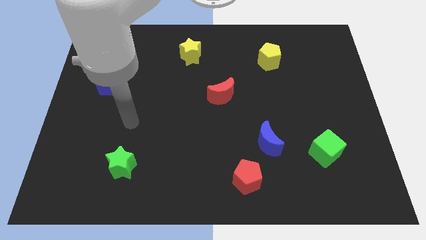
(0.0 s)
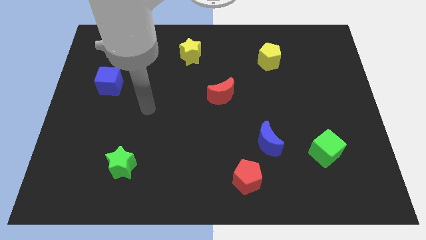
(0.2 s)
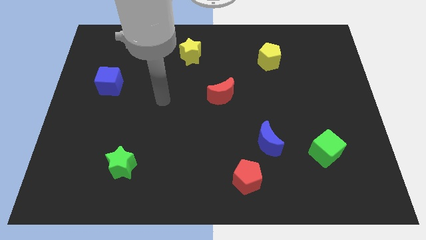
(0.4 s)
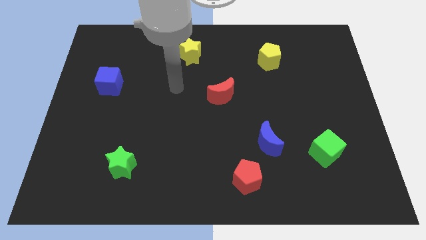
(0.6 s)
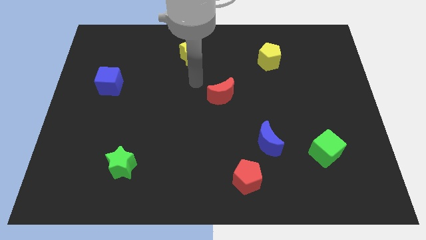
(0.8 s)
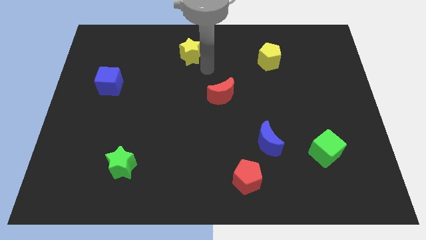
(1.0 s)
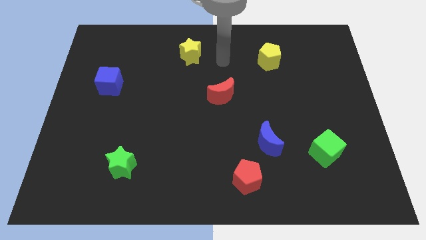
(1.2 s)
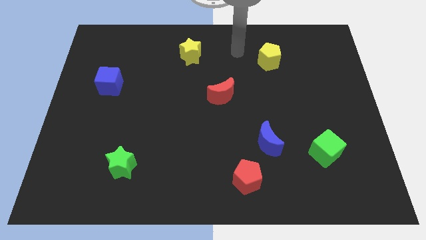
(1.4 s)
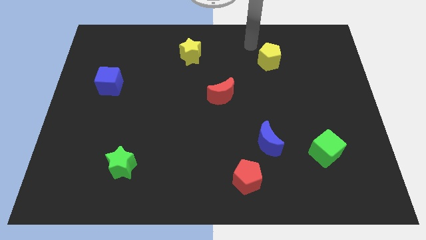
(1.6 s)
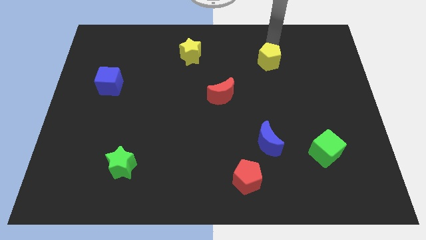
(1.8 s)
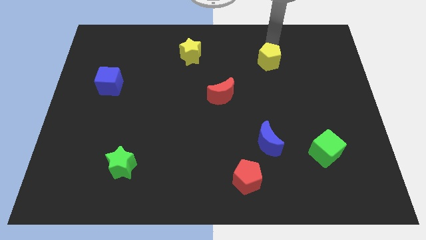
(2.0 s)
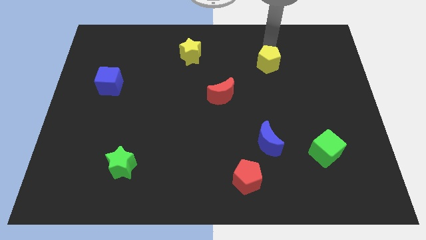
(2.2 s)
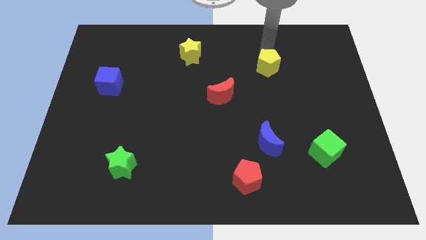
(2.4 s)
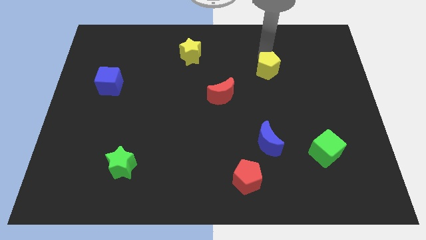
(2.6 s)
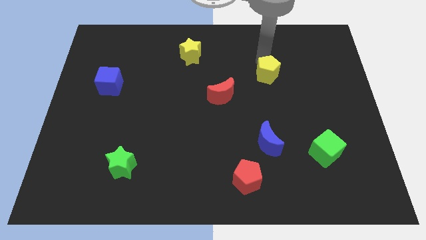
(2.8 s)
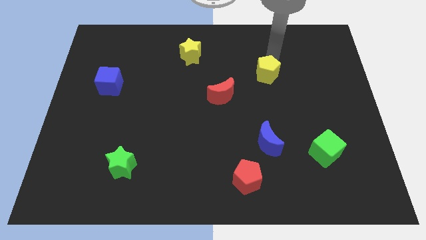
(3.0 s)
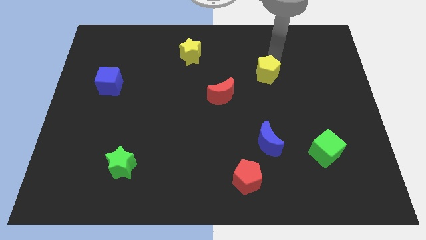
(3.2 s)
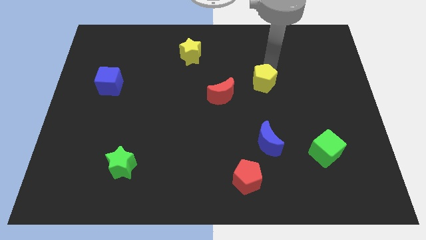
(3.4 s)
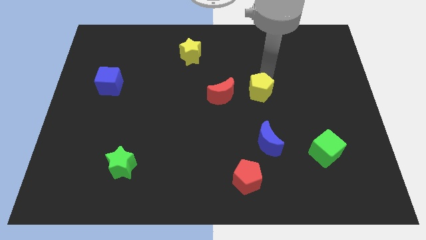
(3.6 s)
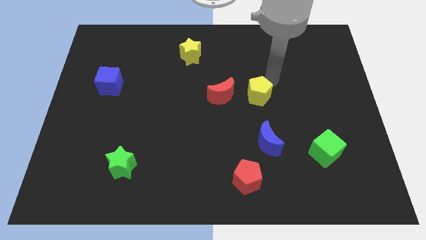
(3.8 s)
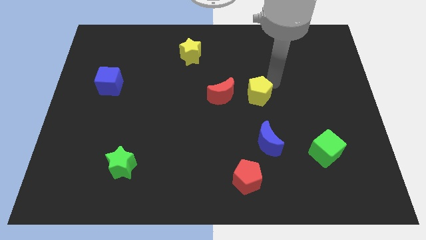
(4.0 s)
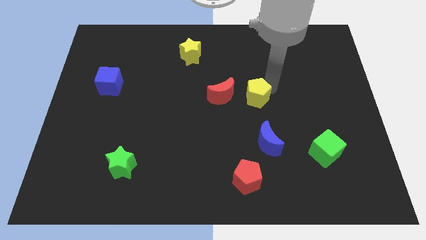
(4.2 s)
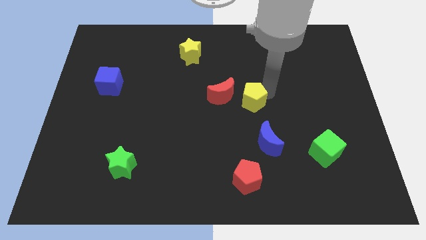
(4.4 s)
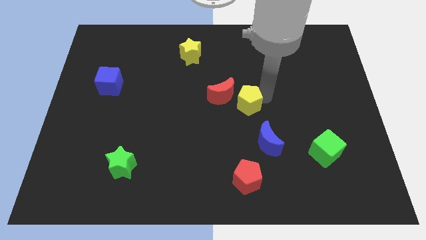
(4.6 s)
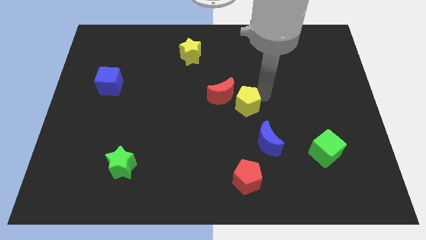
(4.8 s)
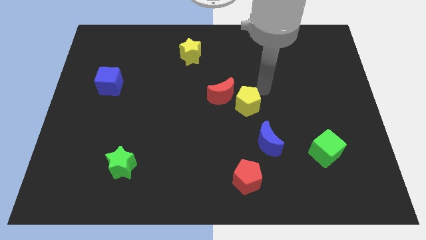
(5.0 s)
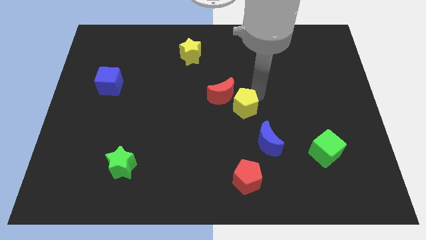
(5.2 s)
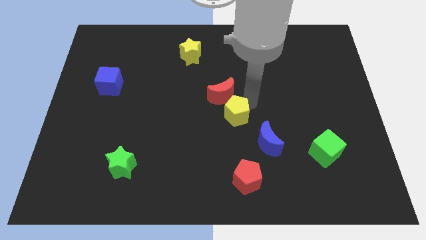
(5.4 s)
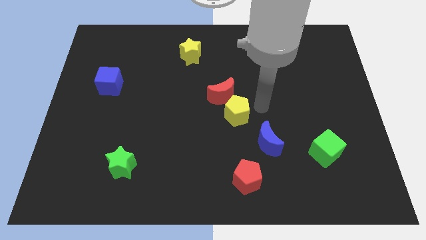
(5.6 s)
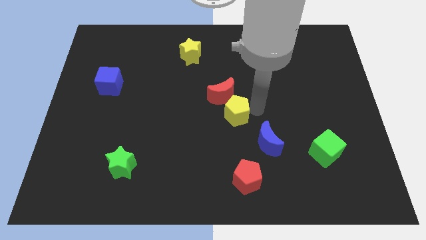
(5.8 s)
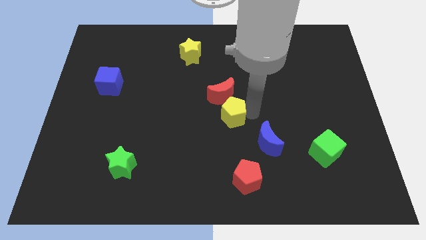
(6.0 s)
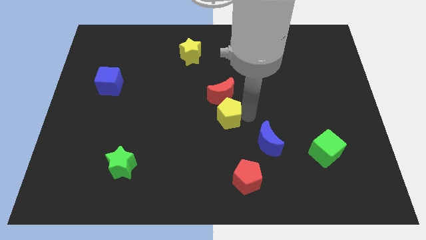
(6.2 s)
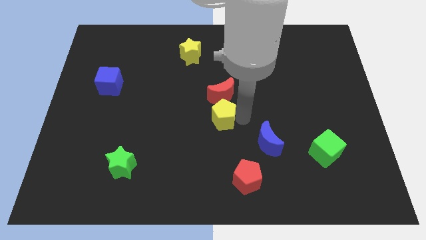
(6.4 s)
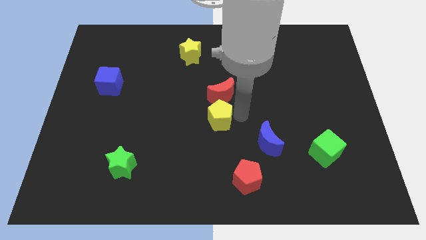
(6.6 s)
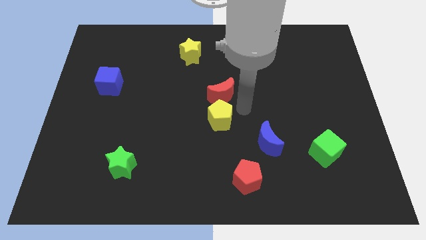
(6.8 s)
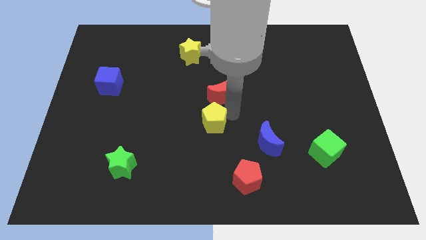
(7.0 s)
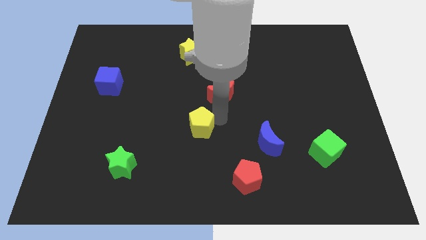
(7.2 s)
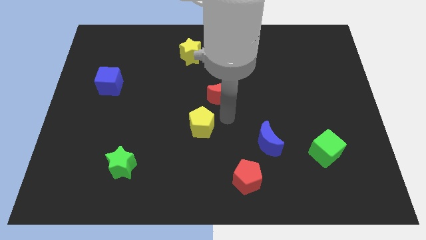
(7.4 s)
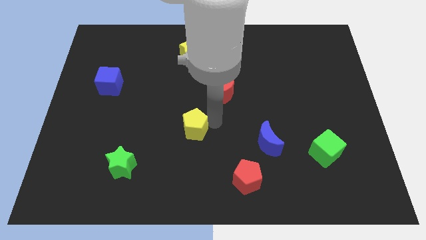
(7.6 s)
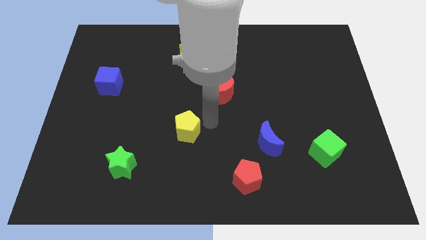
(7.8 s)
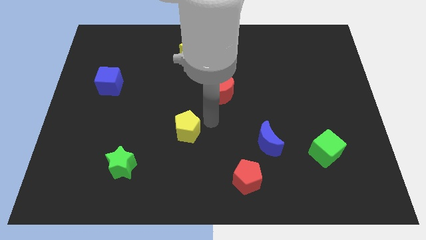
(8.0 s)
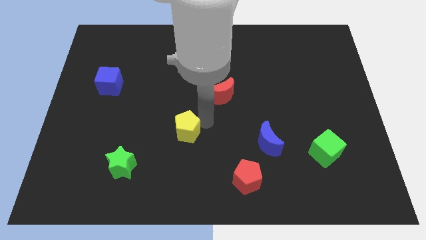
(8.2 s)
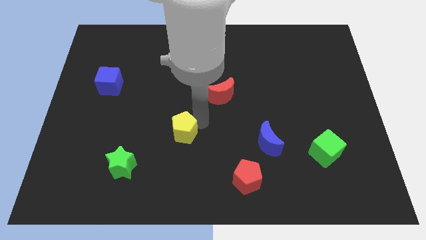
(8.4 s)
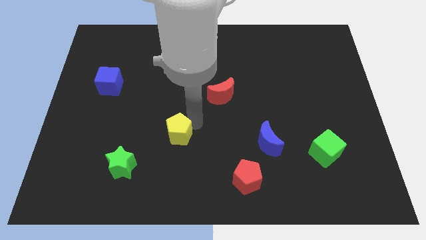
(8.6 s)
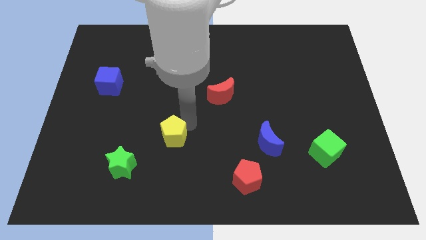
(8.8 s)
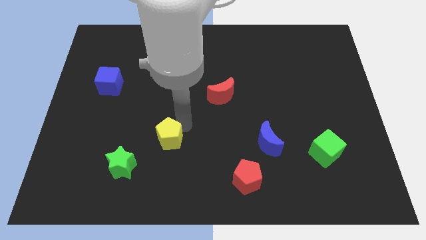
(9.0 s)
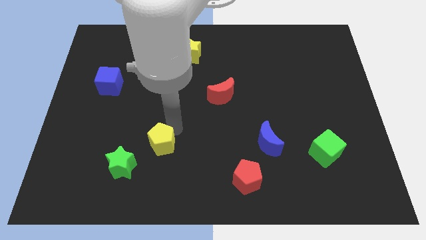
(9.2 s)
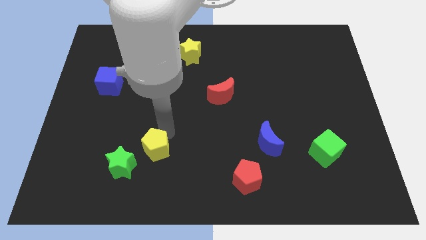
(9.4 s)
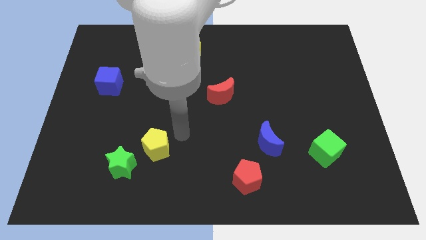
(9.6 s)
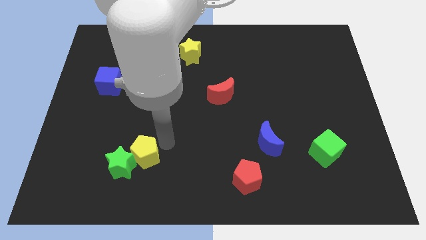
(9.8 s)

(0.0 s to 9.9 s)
push the yellow pentagon next to the green star

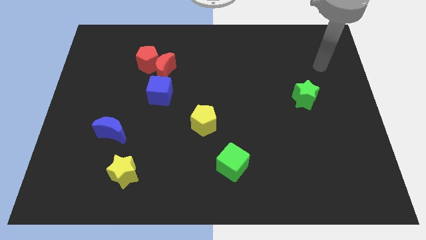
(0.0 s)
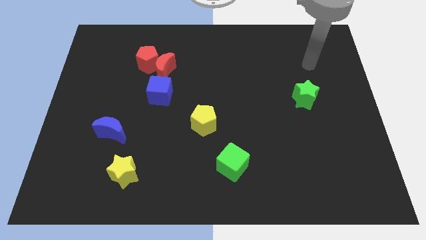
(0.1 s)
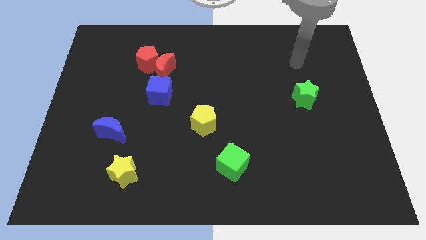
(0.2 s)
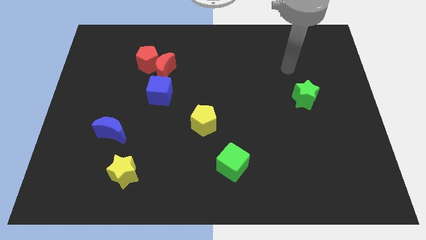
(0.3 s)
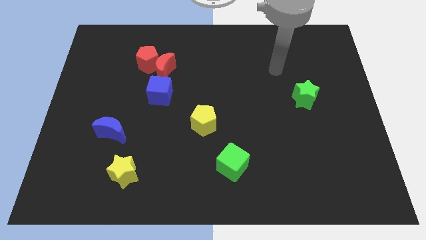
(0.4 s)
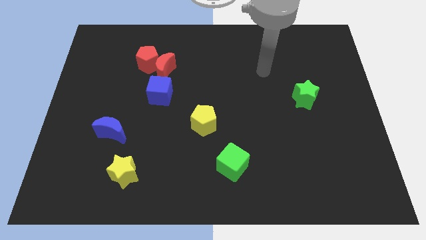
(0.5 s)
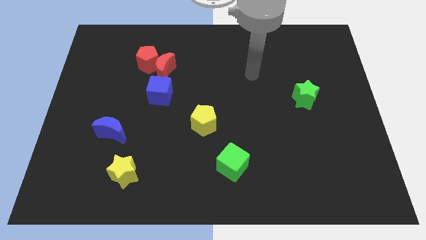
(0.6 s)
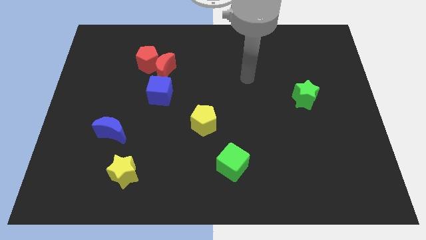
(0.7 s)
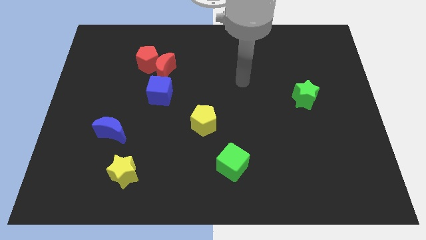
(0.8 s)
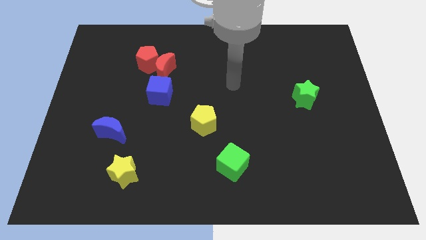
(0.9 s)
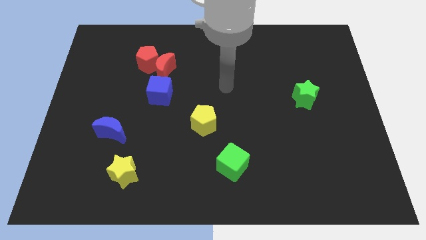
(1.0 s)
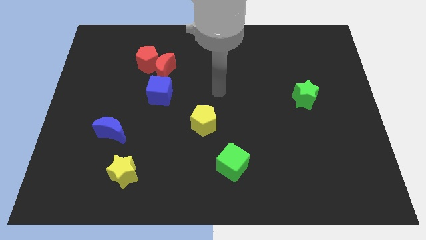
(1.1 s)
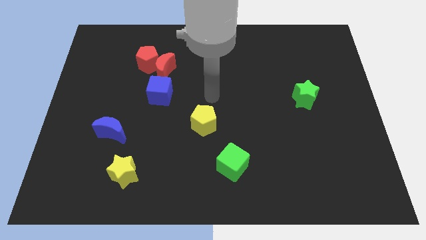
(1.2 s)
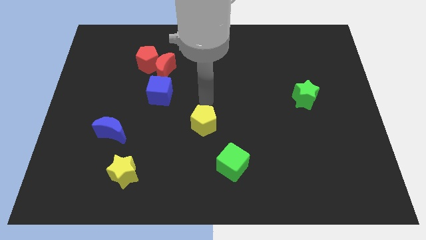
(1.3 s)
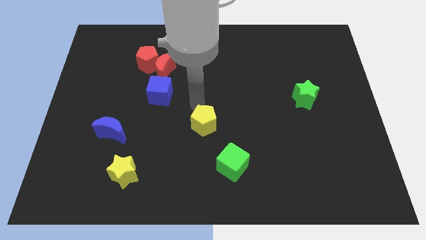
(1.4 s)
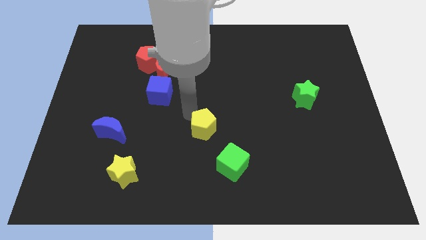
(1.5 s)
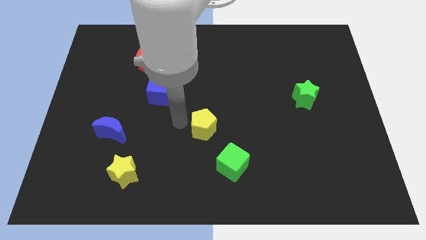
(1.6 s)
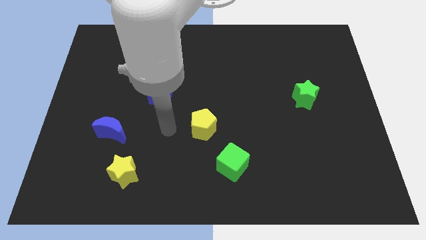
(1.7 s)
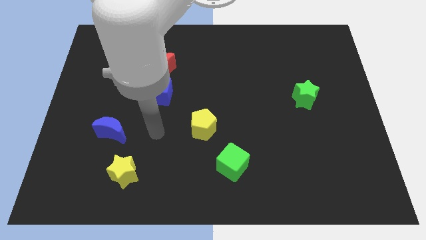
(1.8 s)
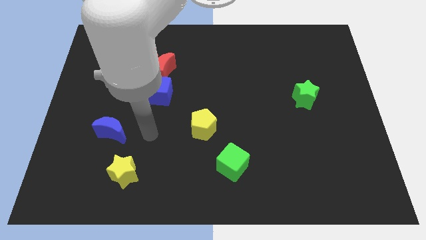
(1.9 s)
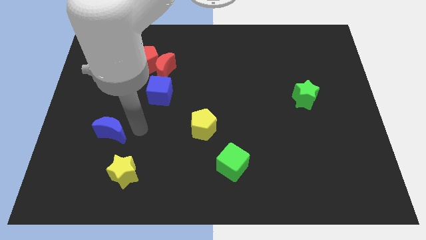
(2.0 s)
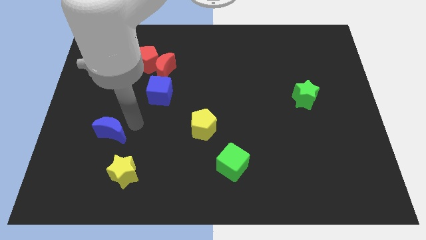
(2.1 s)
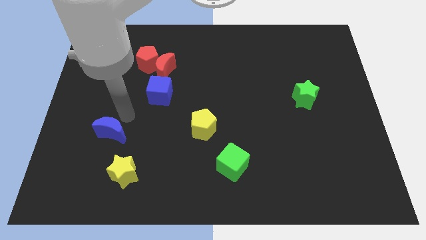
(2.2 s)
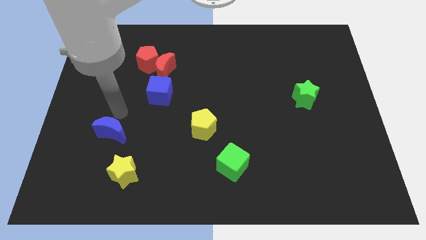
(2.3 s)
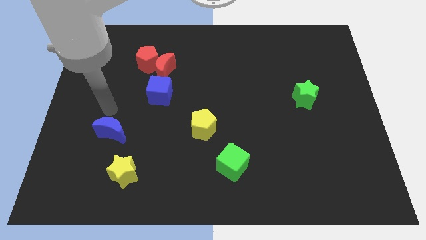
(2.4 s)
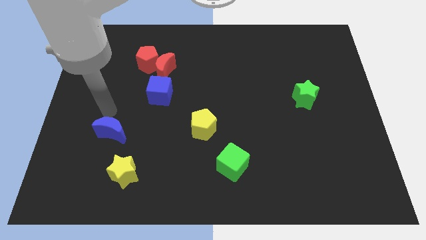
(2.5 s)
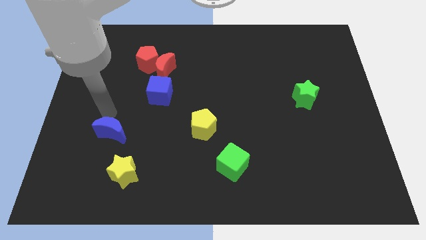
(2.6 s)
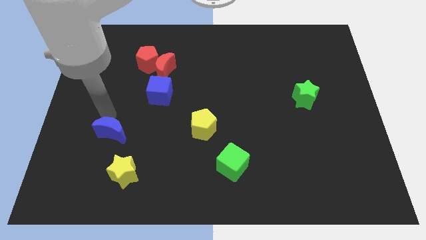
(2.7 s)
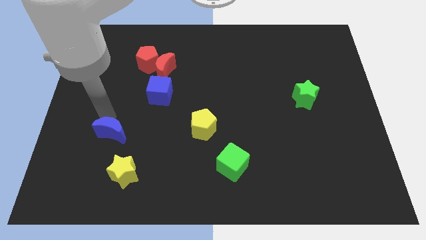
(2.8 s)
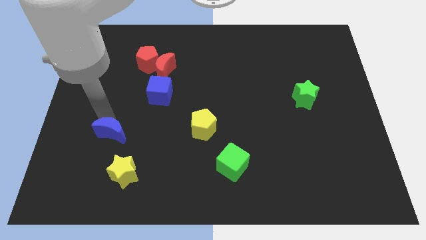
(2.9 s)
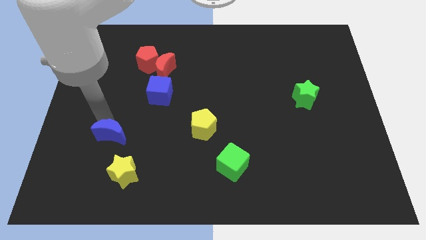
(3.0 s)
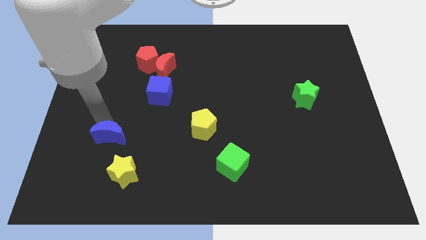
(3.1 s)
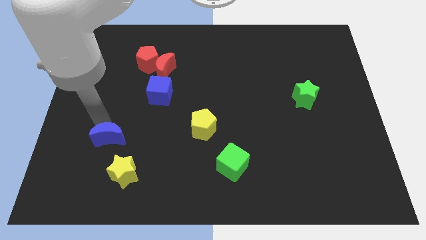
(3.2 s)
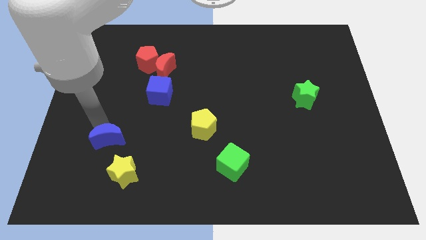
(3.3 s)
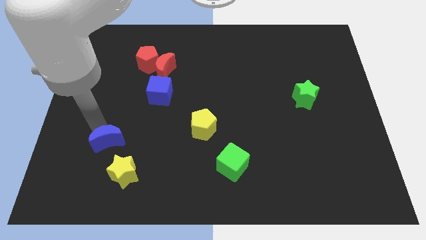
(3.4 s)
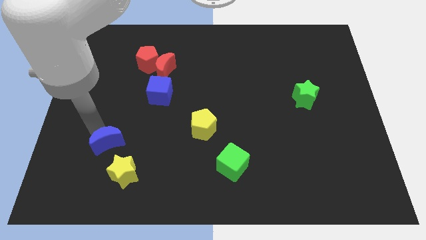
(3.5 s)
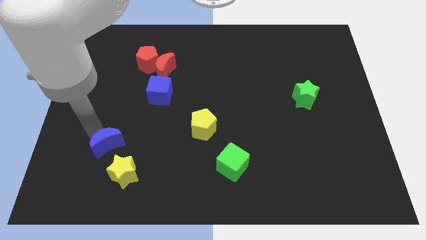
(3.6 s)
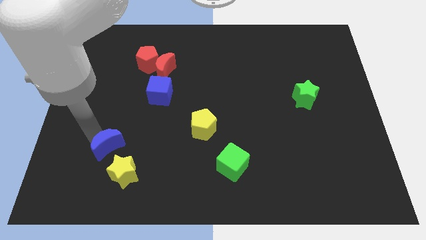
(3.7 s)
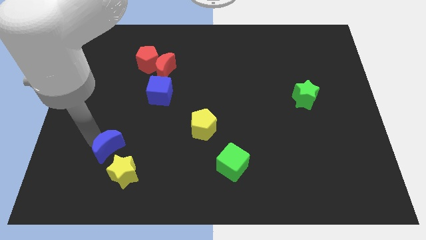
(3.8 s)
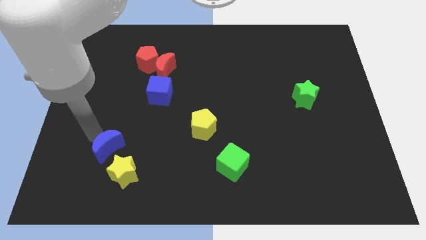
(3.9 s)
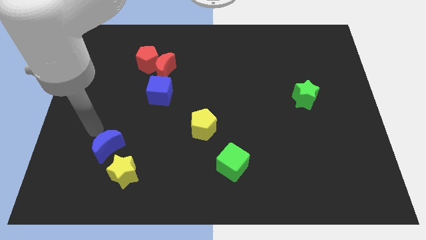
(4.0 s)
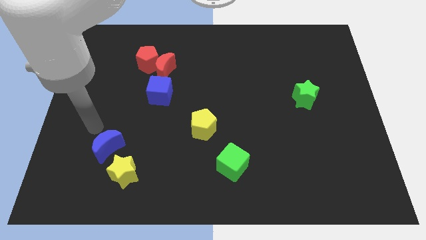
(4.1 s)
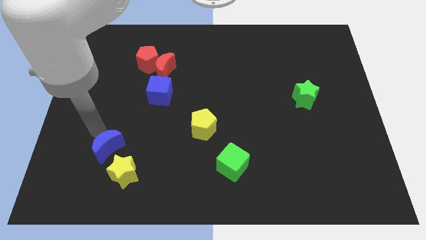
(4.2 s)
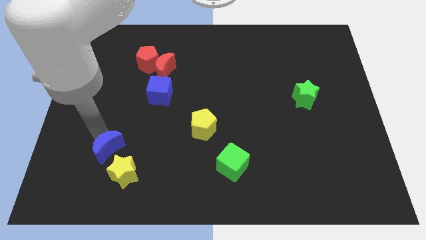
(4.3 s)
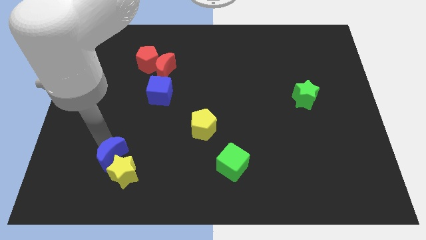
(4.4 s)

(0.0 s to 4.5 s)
move the blue moon towards the yellow star
